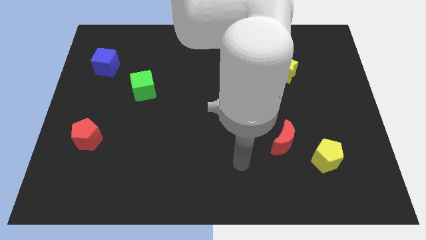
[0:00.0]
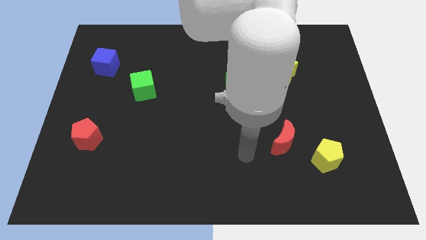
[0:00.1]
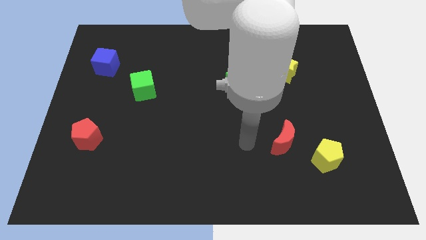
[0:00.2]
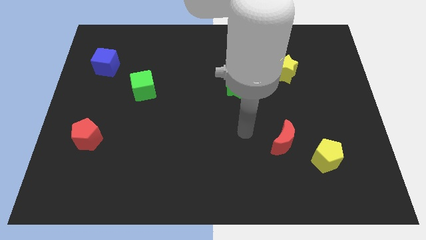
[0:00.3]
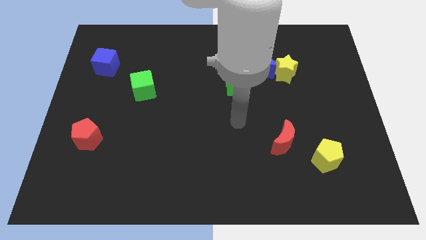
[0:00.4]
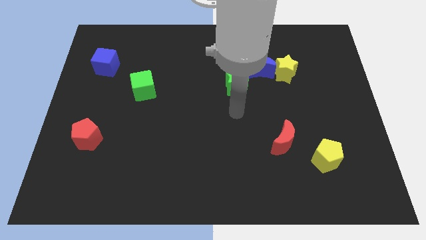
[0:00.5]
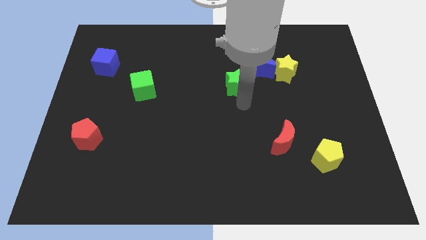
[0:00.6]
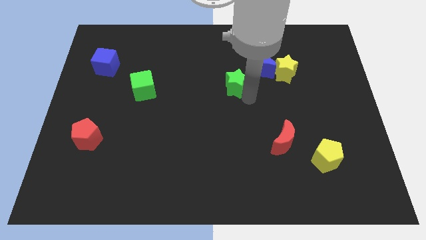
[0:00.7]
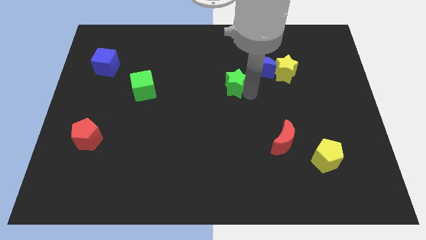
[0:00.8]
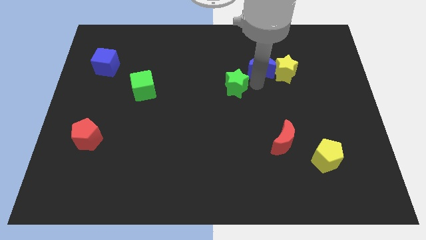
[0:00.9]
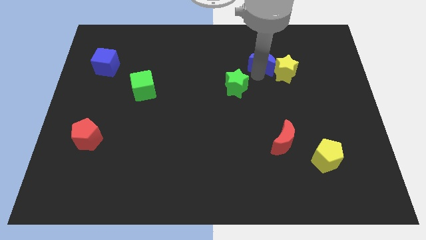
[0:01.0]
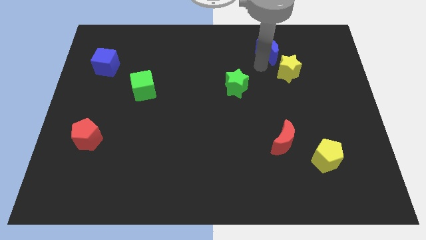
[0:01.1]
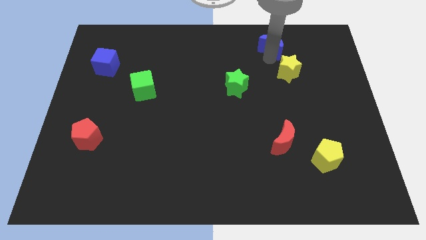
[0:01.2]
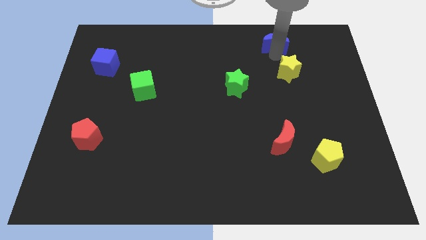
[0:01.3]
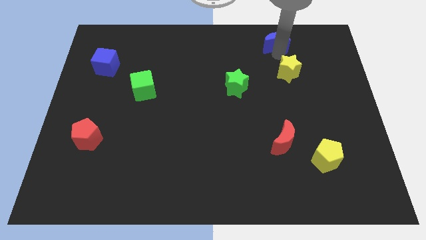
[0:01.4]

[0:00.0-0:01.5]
separate the yellow star from the blue moon

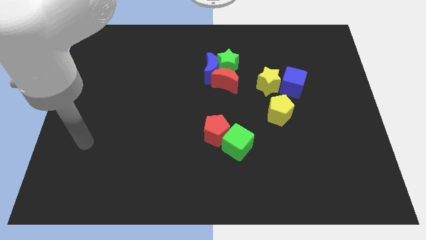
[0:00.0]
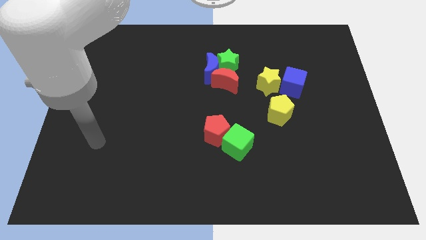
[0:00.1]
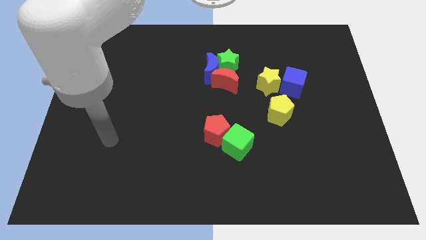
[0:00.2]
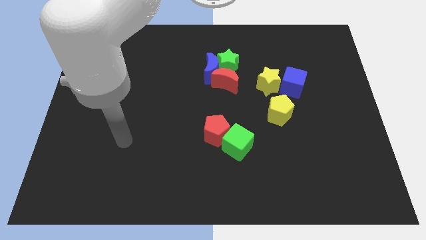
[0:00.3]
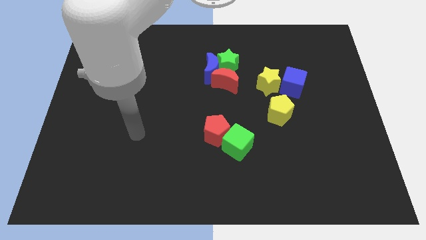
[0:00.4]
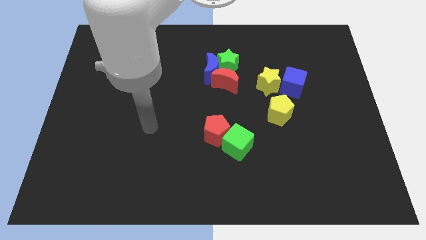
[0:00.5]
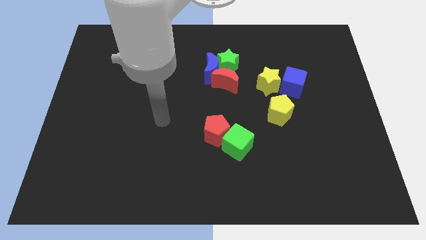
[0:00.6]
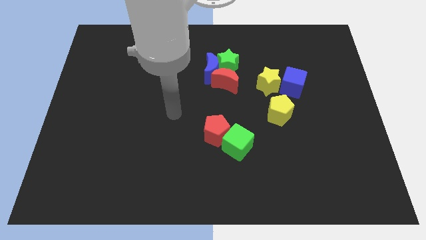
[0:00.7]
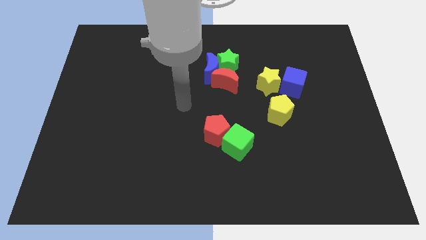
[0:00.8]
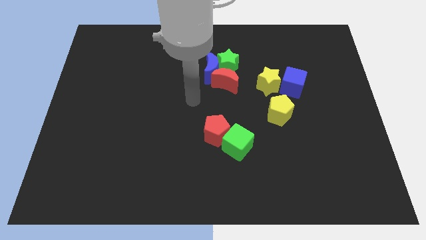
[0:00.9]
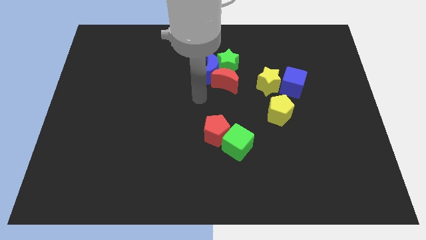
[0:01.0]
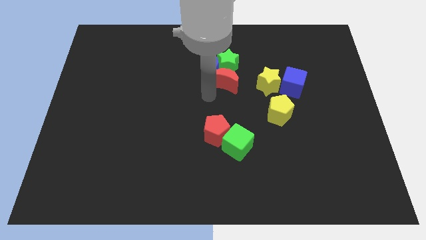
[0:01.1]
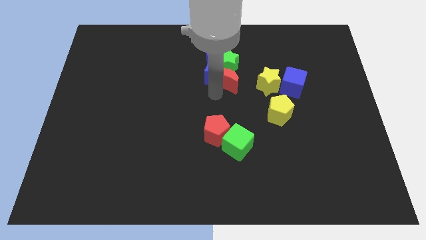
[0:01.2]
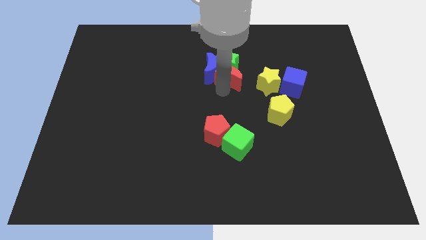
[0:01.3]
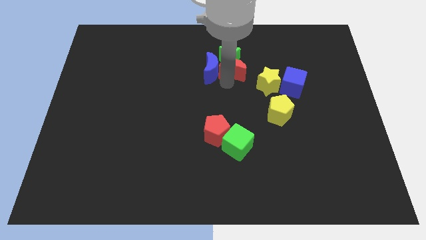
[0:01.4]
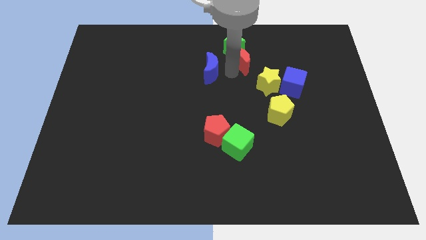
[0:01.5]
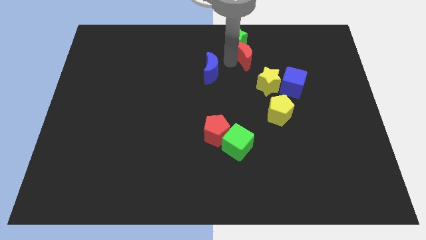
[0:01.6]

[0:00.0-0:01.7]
separate the blue moon from the green star and red moon

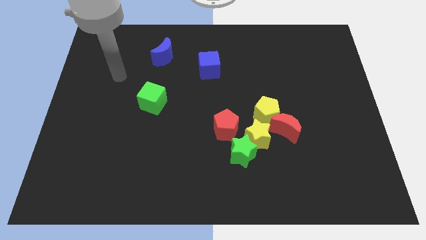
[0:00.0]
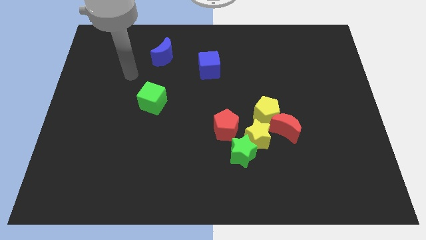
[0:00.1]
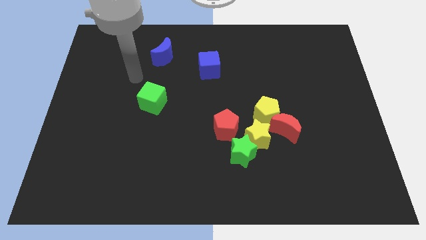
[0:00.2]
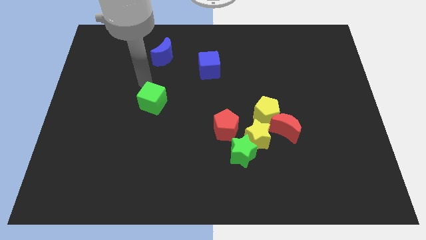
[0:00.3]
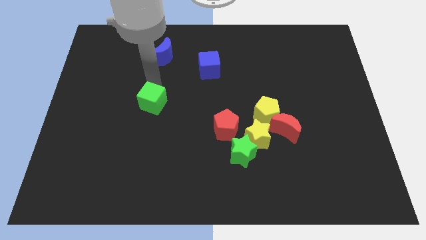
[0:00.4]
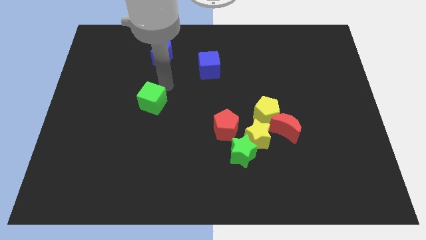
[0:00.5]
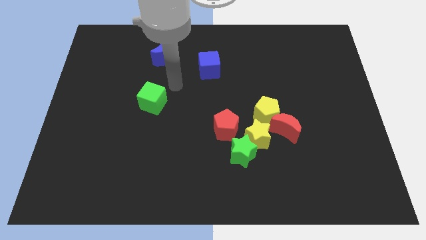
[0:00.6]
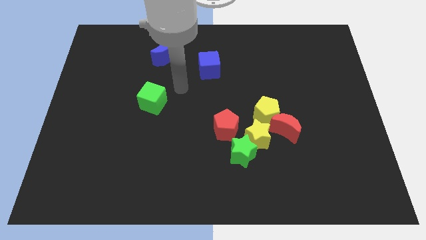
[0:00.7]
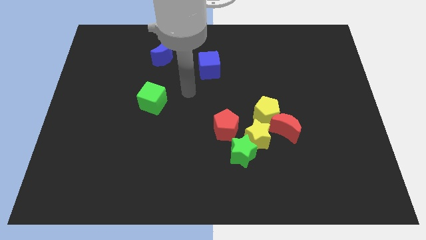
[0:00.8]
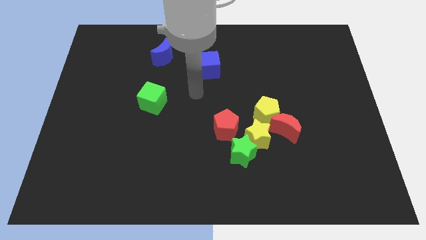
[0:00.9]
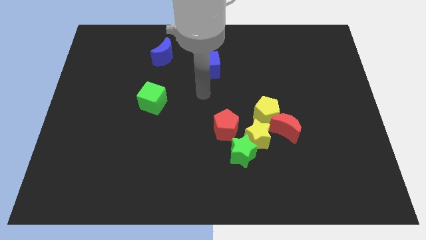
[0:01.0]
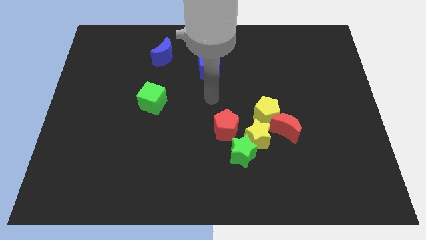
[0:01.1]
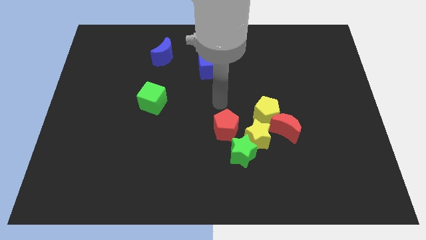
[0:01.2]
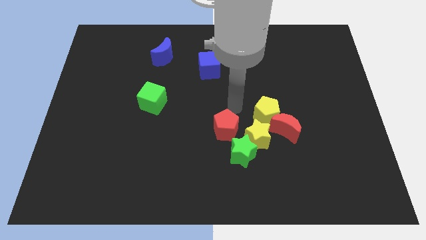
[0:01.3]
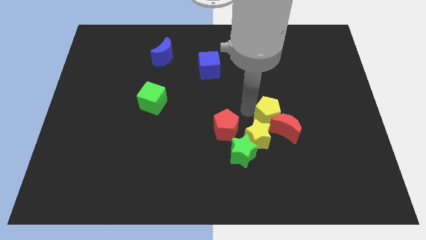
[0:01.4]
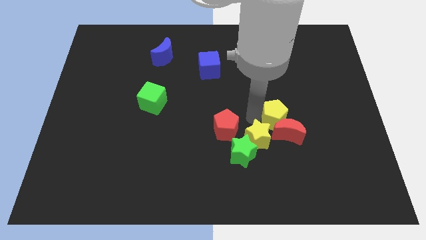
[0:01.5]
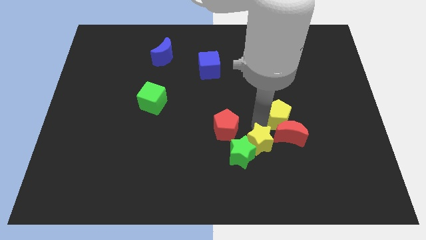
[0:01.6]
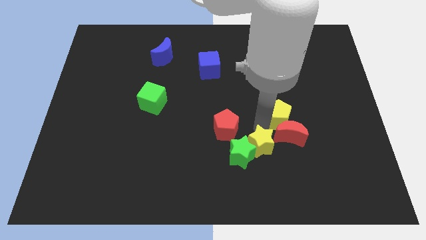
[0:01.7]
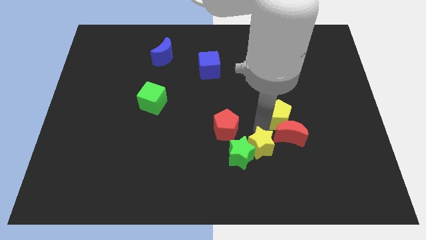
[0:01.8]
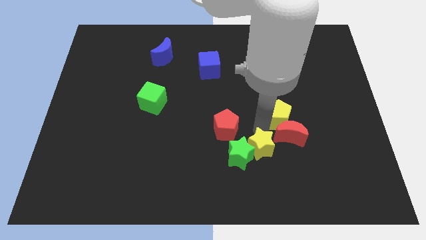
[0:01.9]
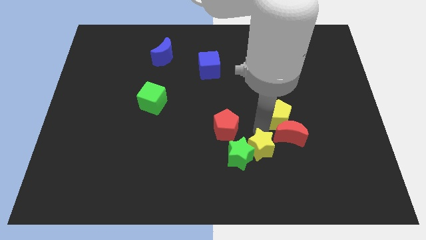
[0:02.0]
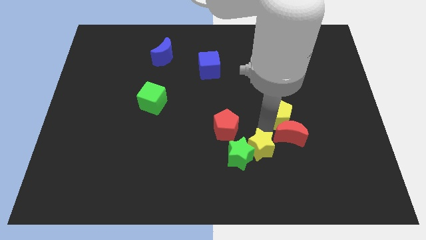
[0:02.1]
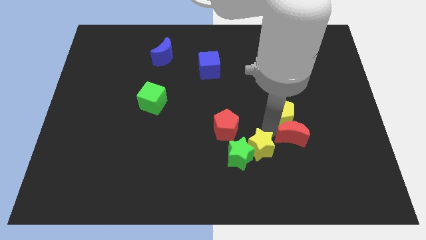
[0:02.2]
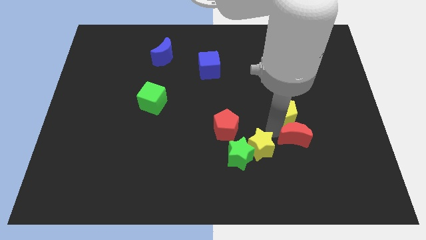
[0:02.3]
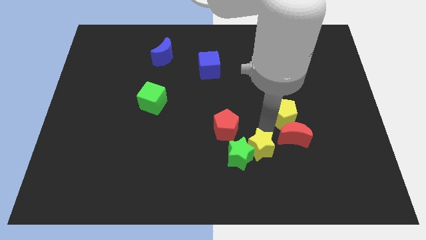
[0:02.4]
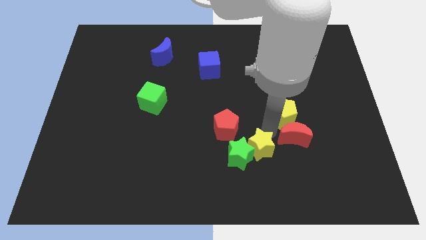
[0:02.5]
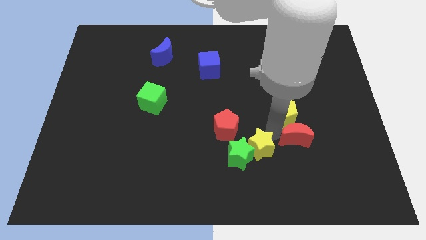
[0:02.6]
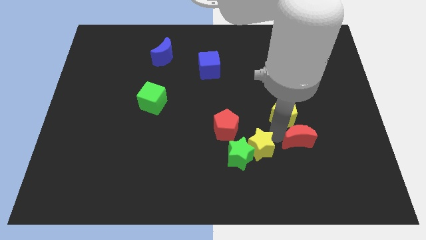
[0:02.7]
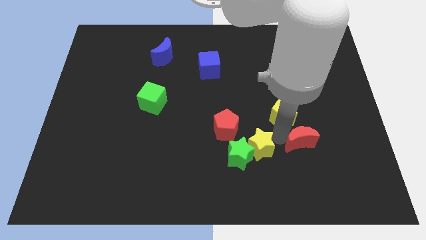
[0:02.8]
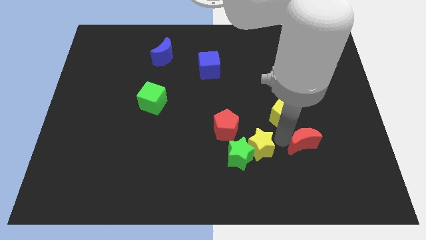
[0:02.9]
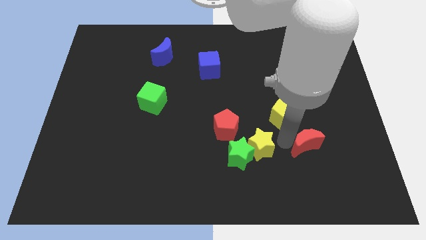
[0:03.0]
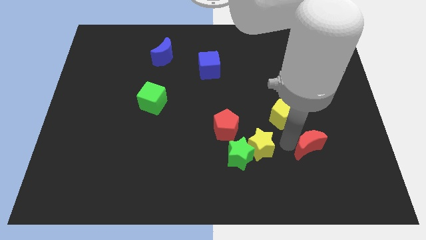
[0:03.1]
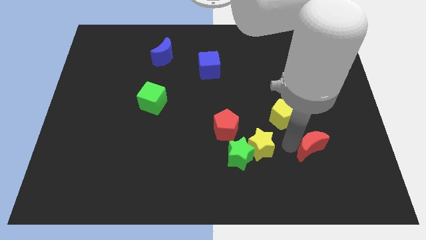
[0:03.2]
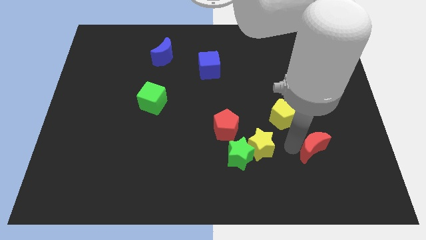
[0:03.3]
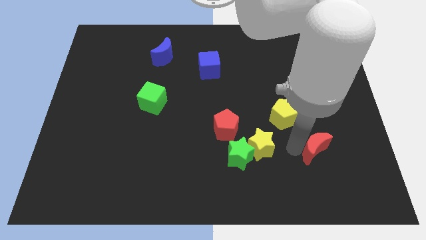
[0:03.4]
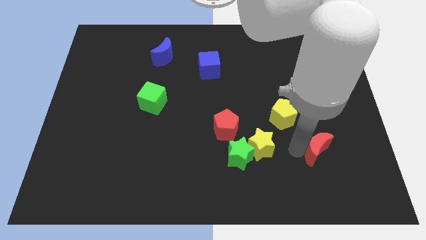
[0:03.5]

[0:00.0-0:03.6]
move the red moon away from the yellow pentagon and yellow star

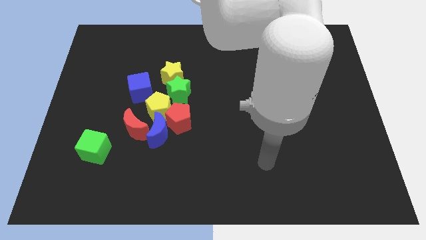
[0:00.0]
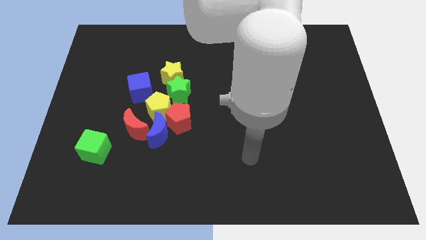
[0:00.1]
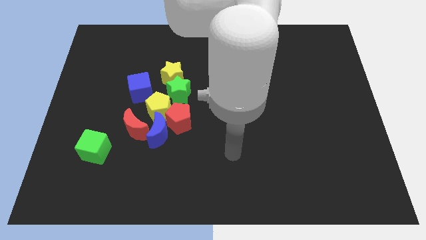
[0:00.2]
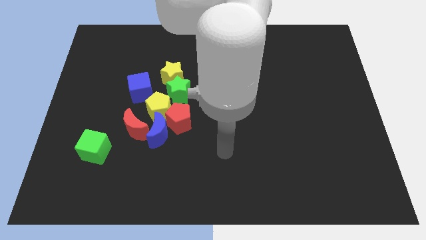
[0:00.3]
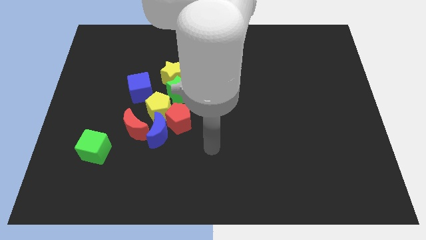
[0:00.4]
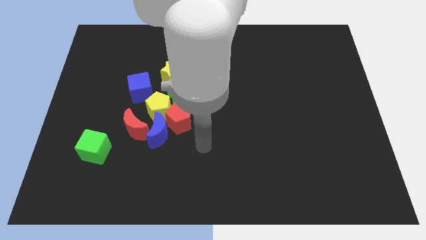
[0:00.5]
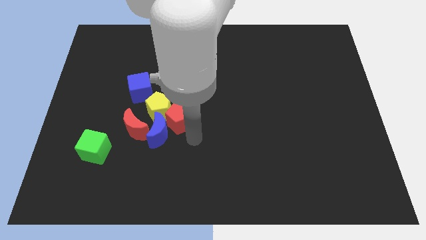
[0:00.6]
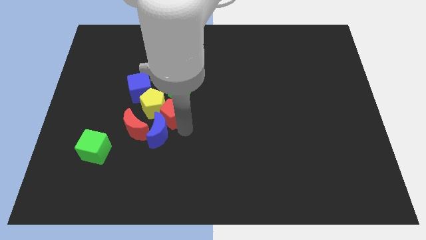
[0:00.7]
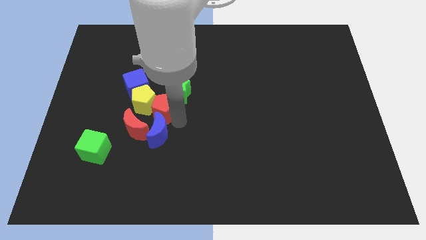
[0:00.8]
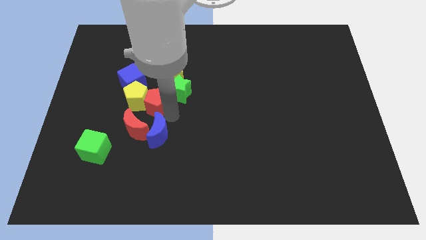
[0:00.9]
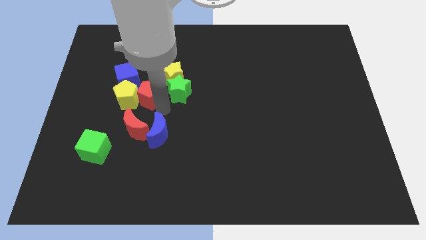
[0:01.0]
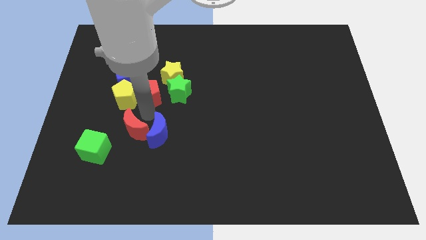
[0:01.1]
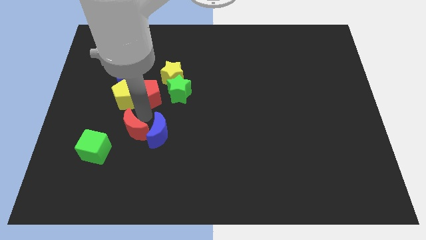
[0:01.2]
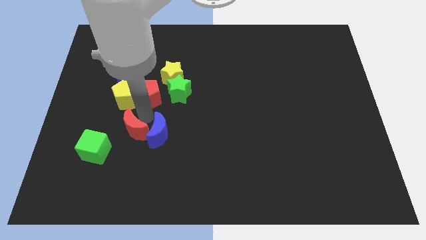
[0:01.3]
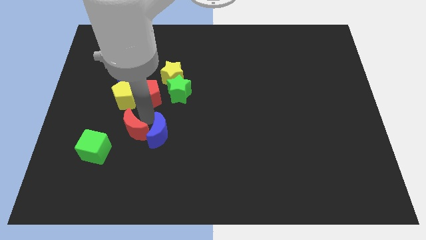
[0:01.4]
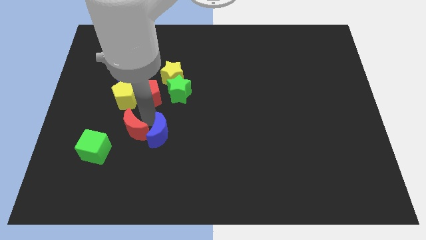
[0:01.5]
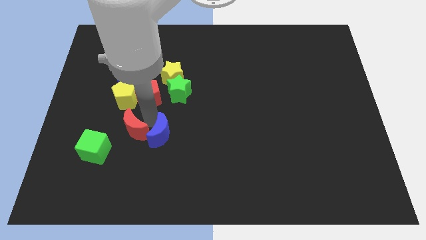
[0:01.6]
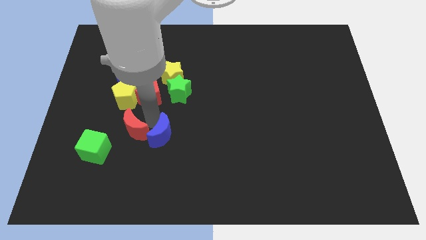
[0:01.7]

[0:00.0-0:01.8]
move the blue moon away from the red pentagon, red moon, and yellow pentagon

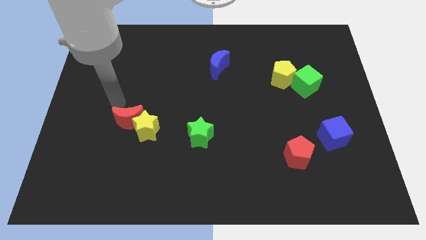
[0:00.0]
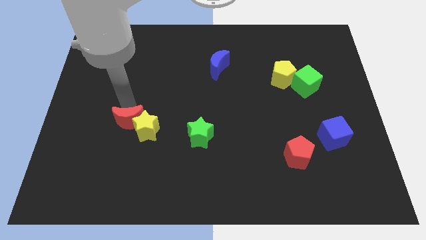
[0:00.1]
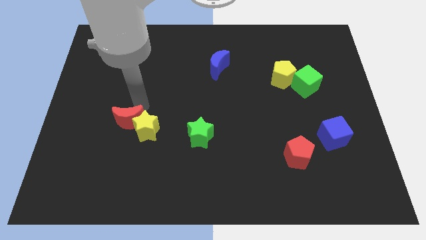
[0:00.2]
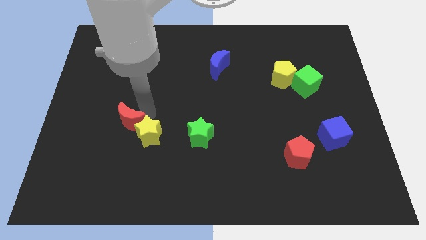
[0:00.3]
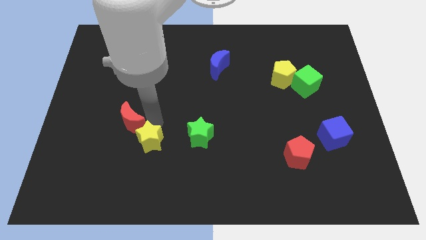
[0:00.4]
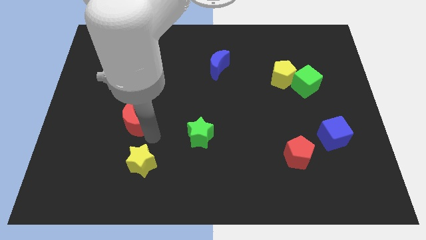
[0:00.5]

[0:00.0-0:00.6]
pull the red moon apart from the yellow star

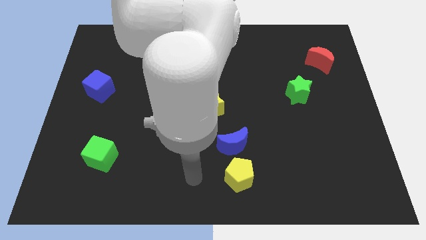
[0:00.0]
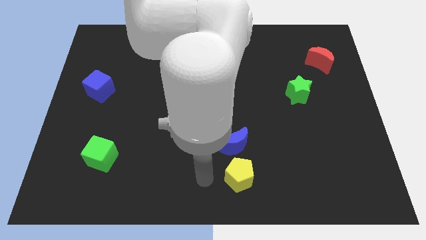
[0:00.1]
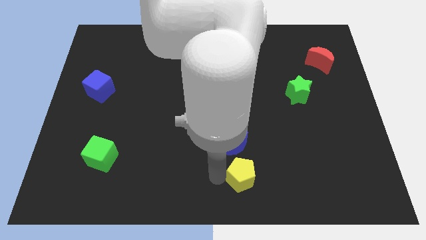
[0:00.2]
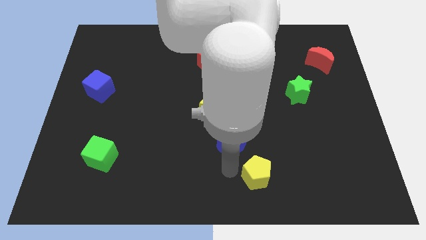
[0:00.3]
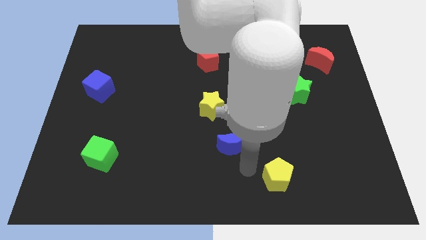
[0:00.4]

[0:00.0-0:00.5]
move the blue moon away from the yellow pentagon
